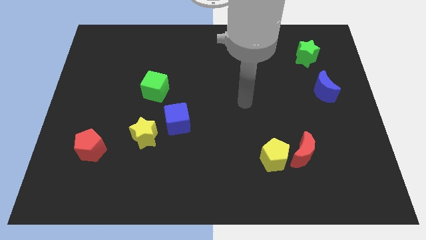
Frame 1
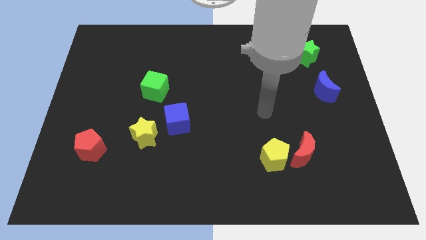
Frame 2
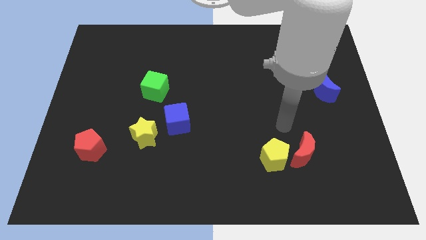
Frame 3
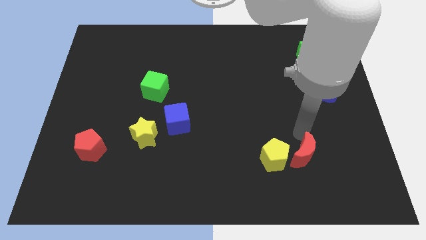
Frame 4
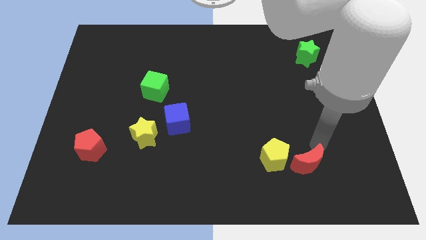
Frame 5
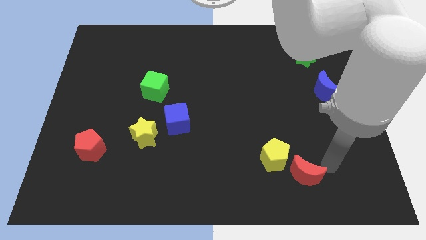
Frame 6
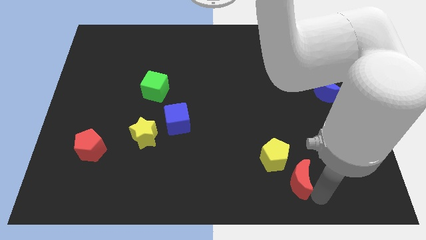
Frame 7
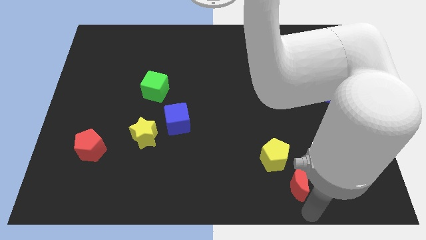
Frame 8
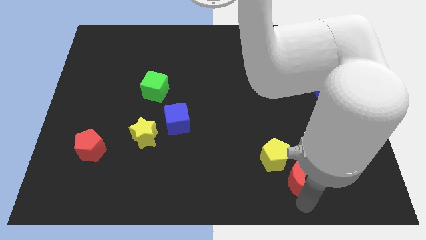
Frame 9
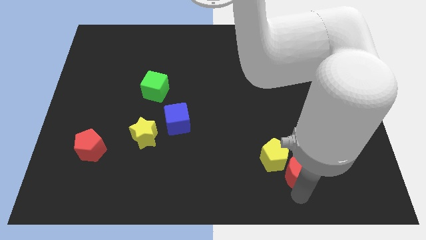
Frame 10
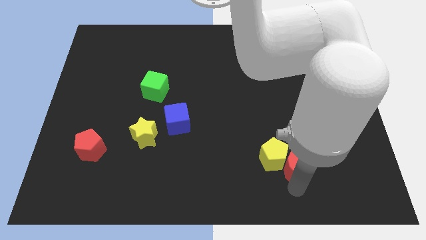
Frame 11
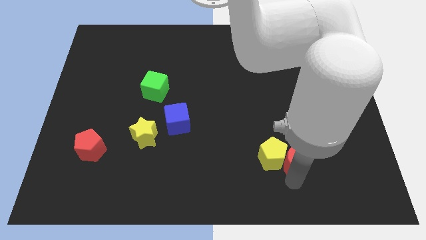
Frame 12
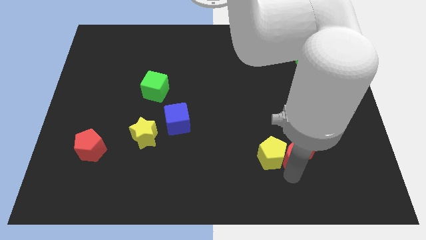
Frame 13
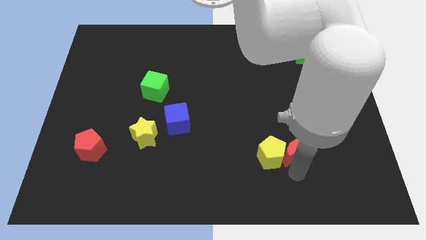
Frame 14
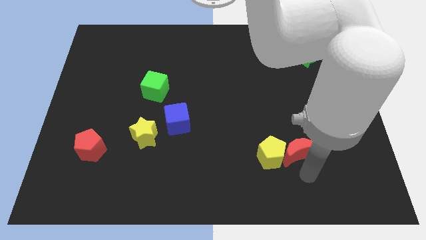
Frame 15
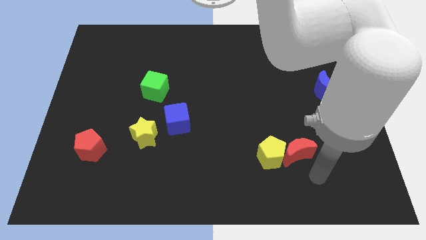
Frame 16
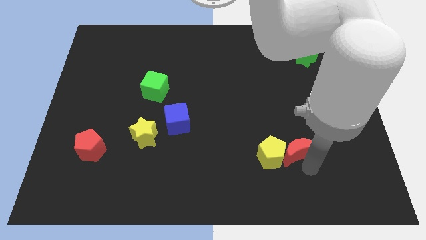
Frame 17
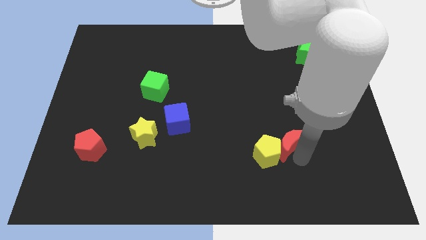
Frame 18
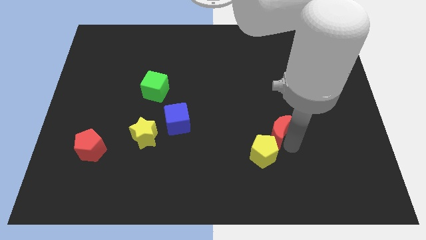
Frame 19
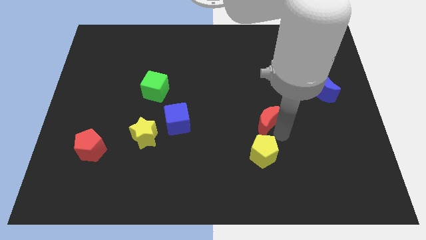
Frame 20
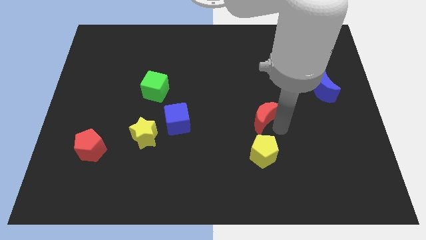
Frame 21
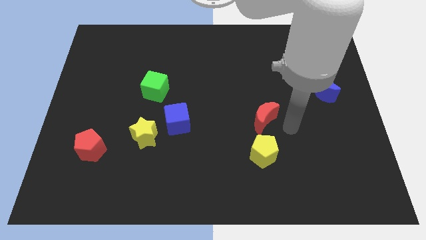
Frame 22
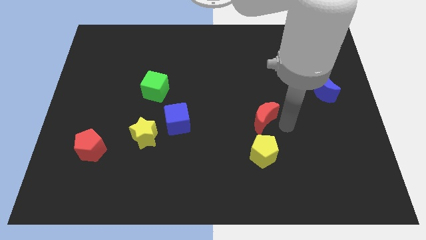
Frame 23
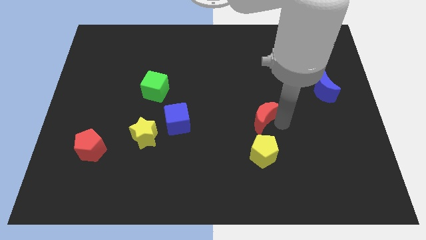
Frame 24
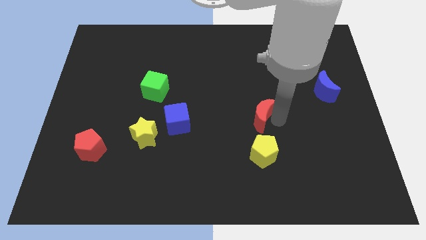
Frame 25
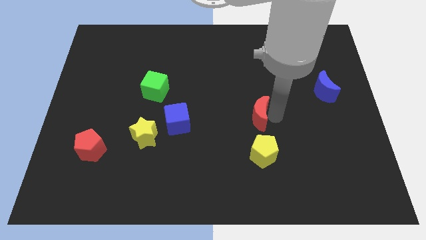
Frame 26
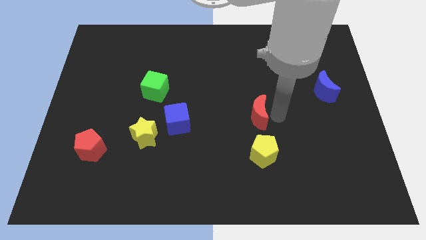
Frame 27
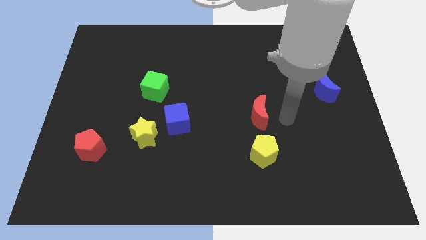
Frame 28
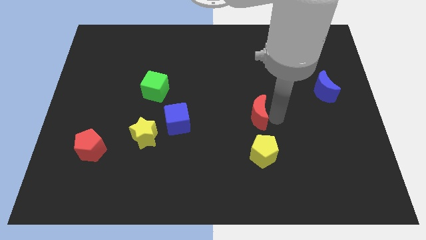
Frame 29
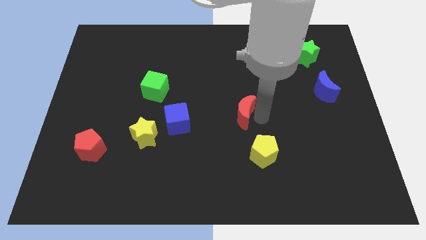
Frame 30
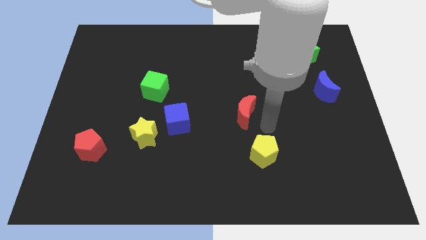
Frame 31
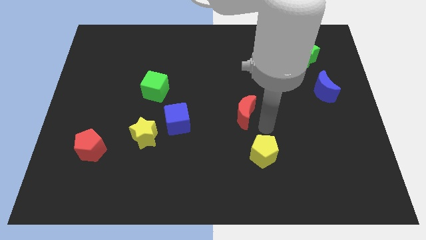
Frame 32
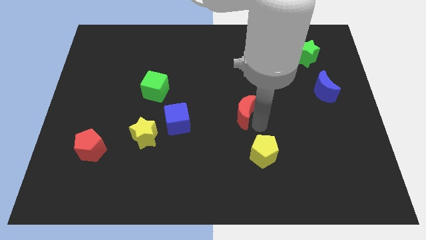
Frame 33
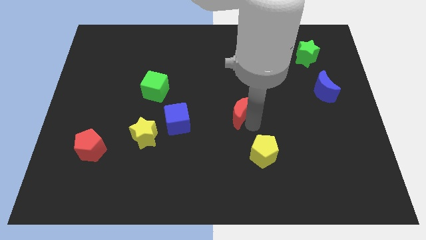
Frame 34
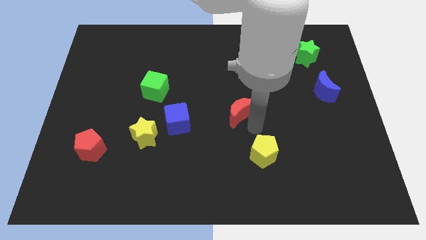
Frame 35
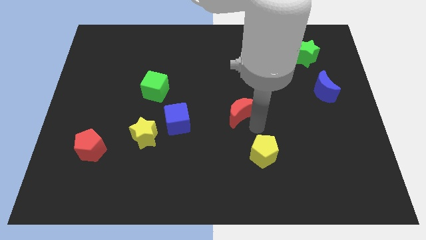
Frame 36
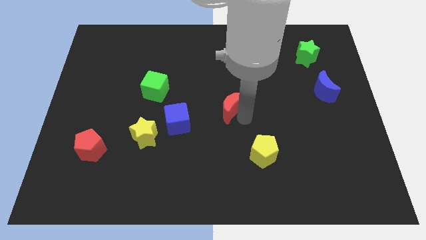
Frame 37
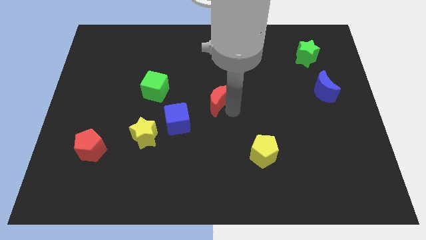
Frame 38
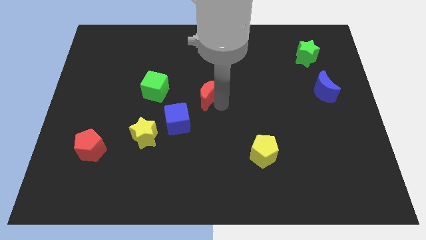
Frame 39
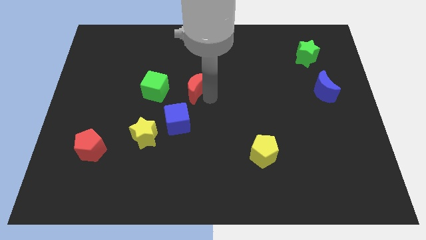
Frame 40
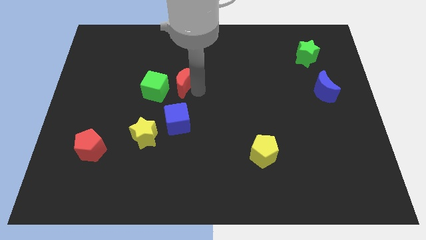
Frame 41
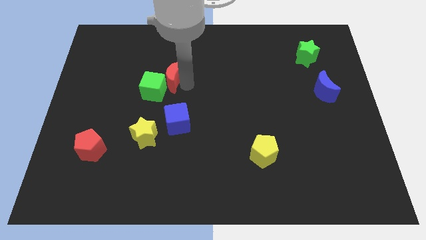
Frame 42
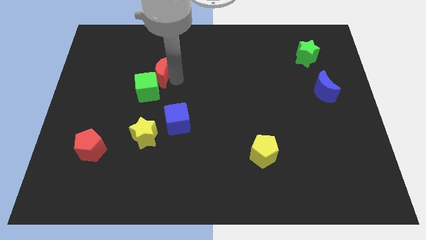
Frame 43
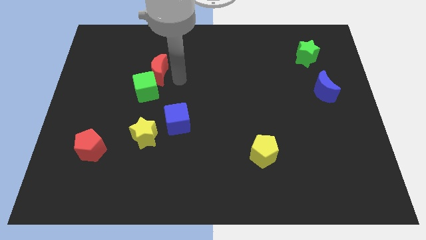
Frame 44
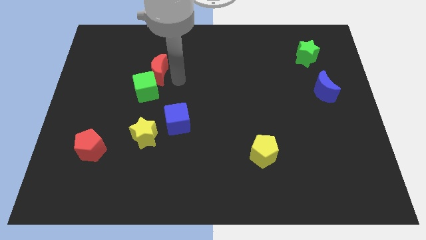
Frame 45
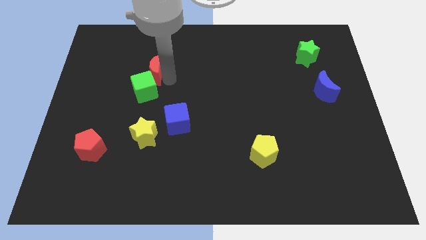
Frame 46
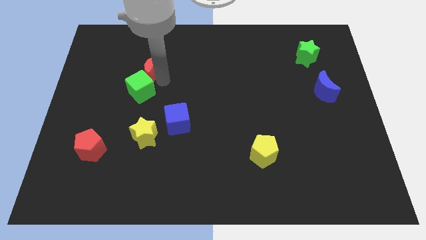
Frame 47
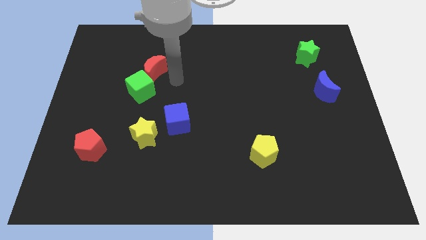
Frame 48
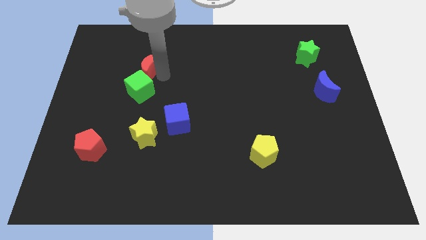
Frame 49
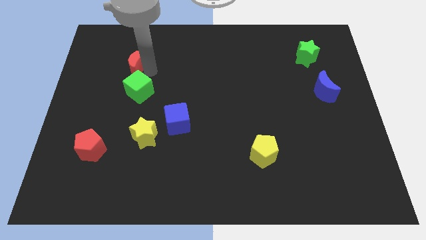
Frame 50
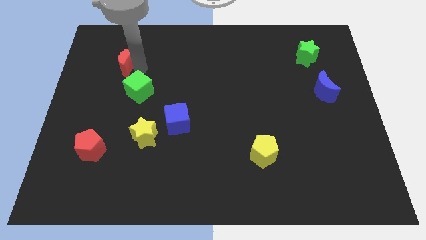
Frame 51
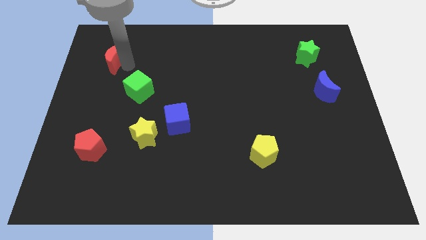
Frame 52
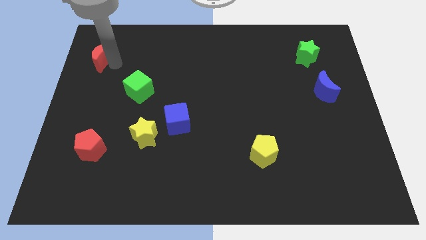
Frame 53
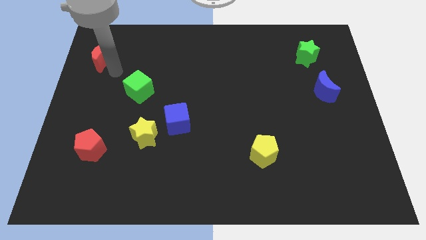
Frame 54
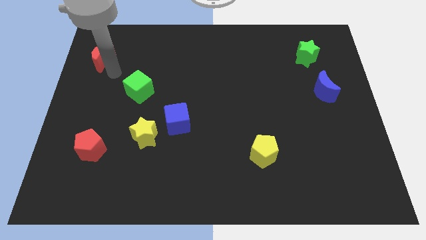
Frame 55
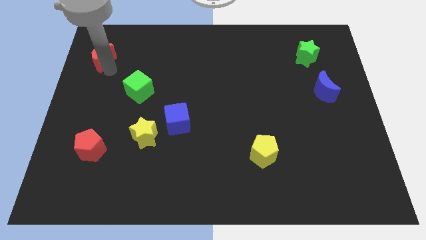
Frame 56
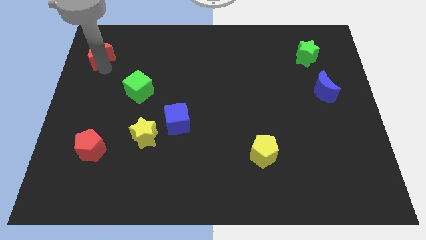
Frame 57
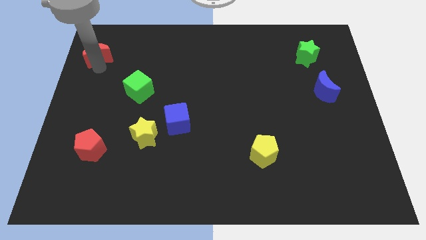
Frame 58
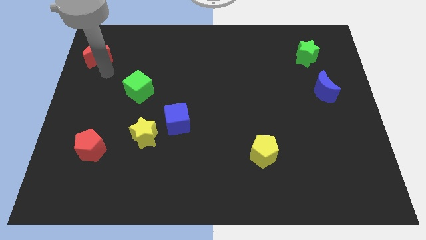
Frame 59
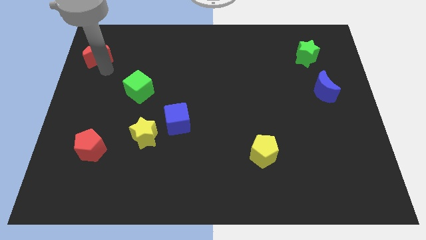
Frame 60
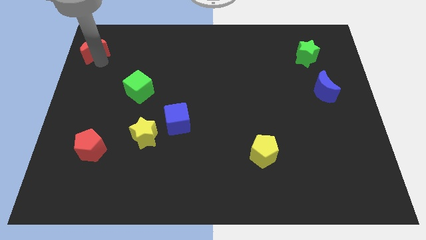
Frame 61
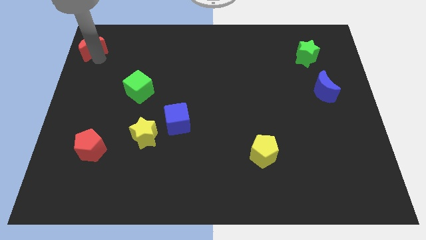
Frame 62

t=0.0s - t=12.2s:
put the red moon to the top left

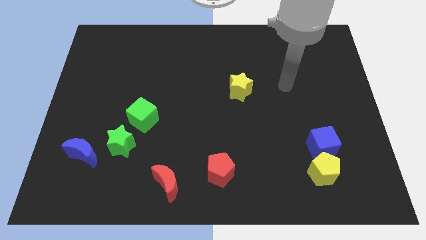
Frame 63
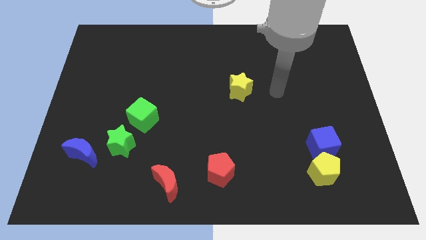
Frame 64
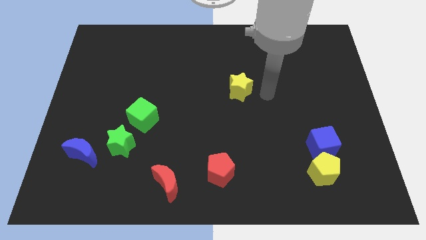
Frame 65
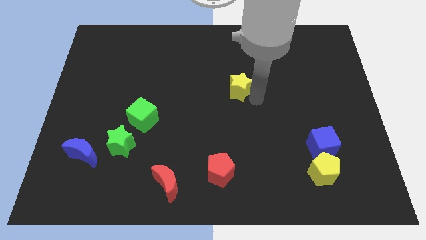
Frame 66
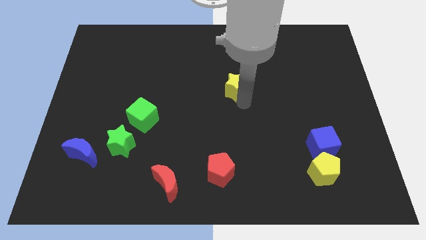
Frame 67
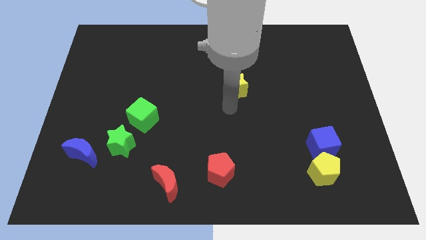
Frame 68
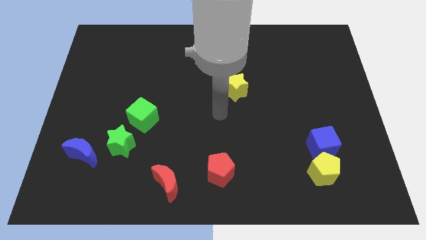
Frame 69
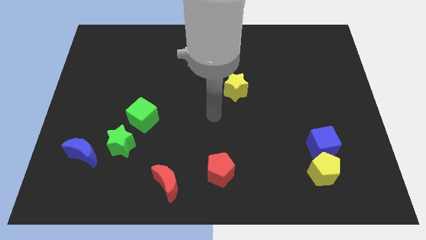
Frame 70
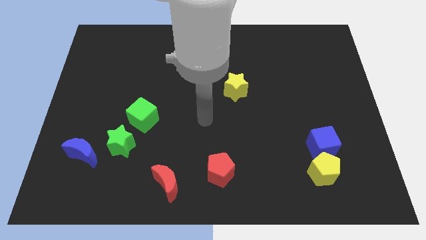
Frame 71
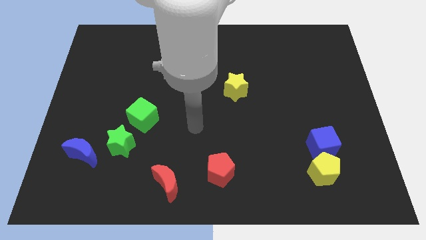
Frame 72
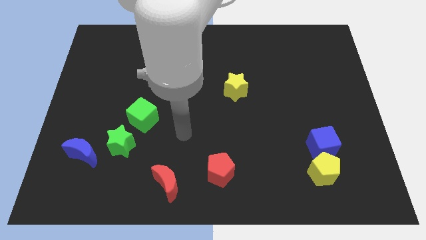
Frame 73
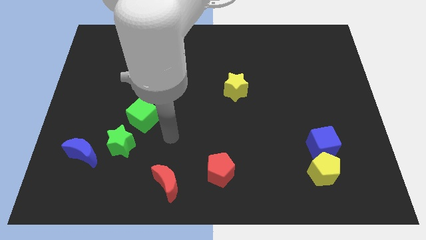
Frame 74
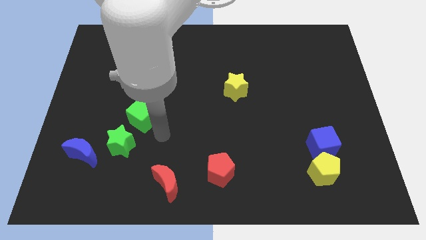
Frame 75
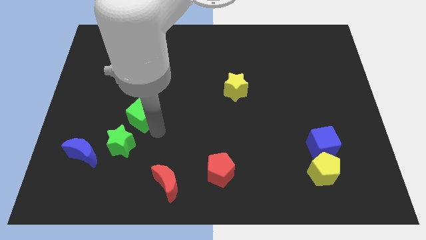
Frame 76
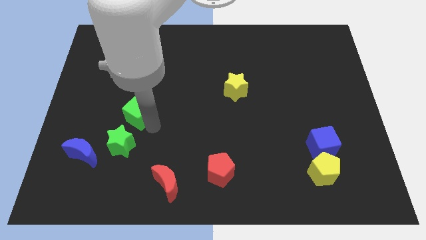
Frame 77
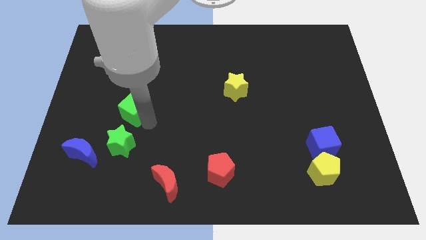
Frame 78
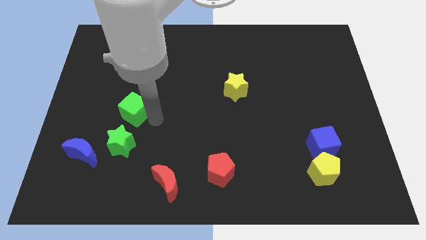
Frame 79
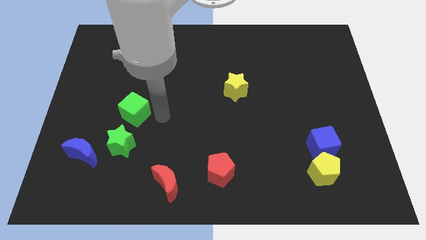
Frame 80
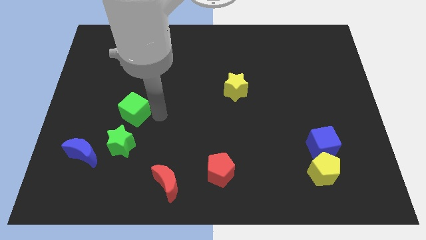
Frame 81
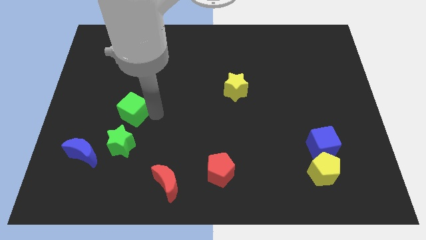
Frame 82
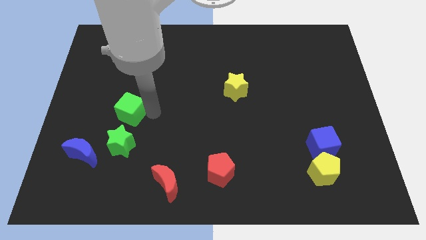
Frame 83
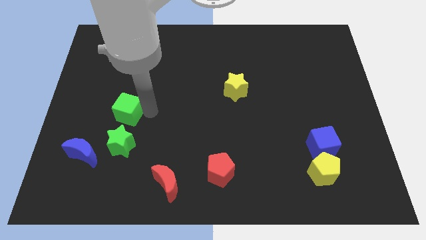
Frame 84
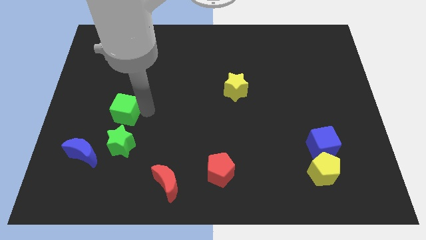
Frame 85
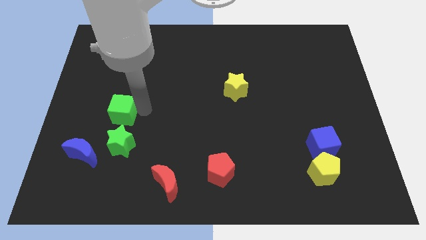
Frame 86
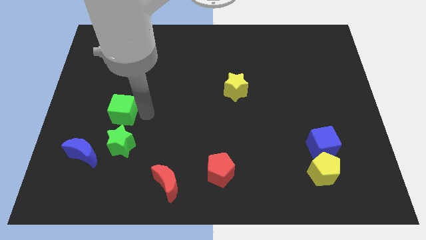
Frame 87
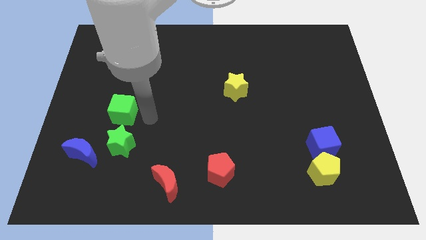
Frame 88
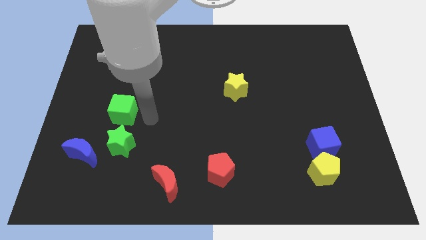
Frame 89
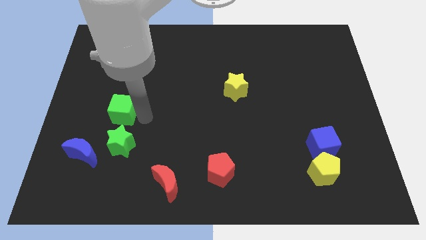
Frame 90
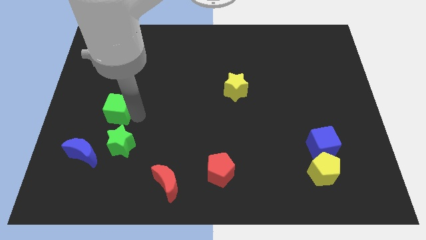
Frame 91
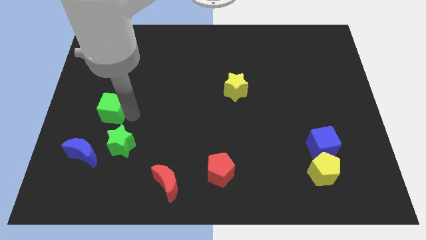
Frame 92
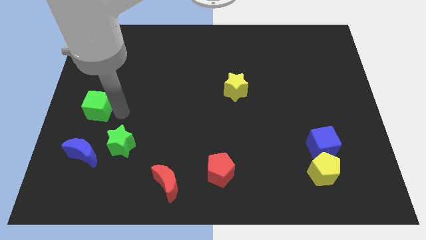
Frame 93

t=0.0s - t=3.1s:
push the green cube to the left side
